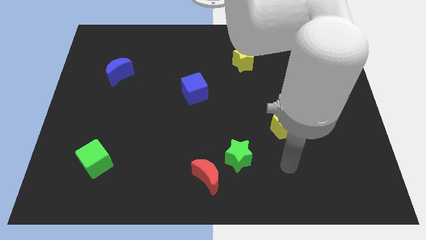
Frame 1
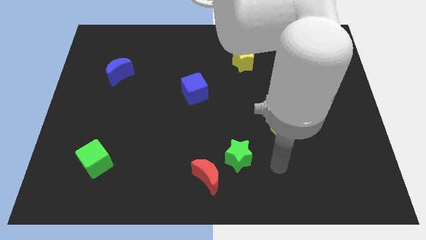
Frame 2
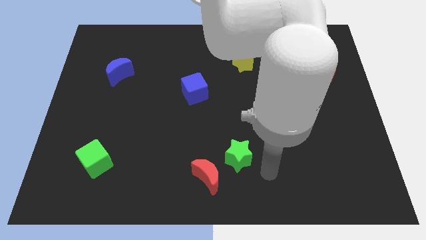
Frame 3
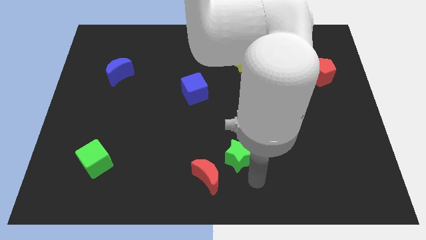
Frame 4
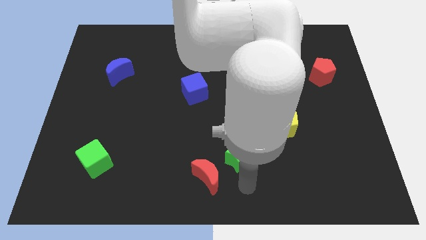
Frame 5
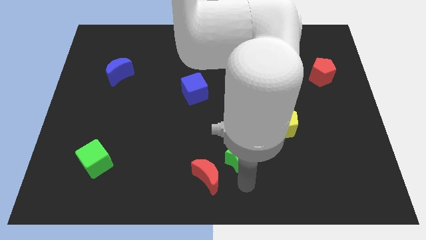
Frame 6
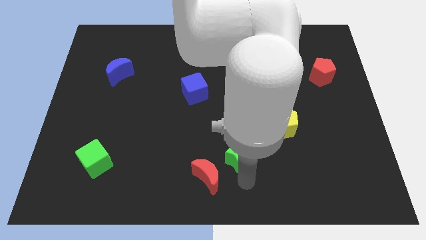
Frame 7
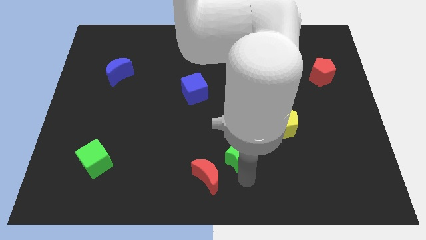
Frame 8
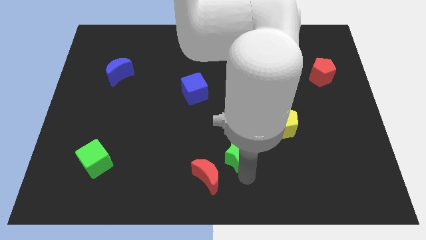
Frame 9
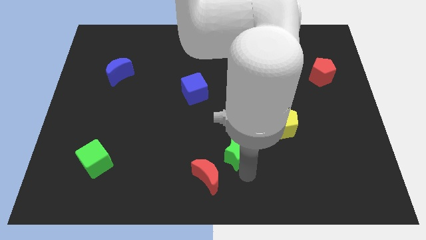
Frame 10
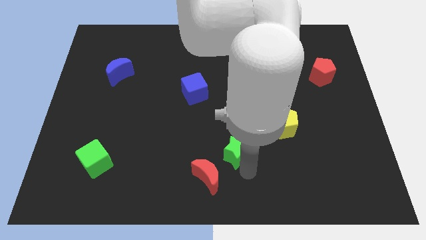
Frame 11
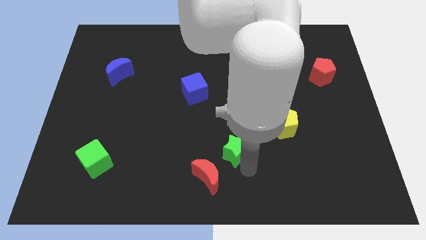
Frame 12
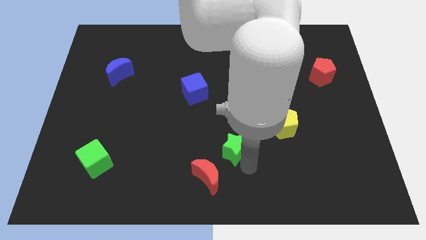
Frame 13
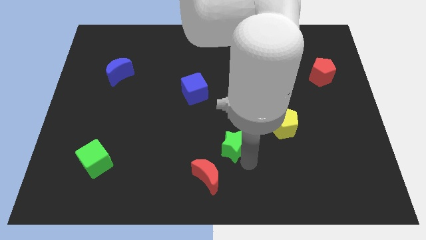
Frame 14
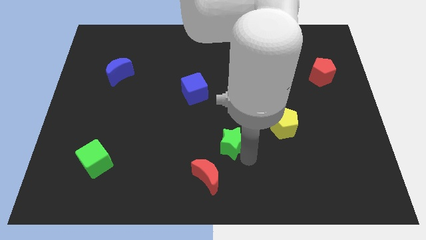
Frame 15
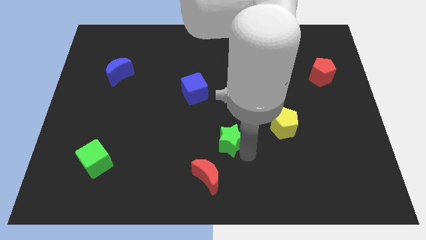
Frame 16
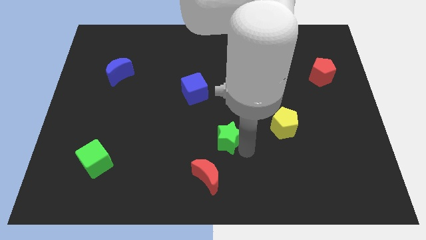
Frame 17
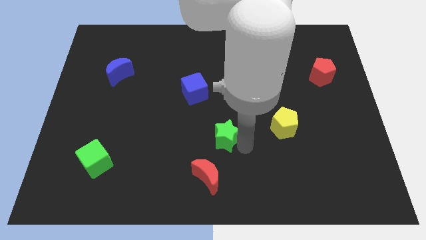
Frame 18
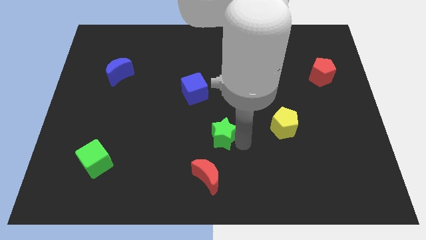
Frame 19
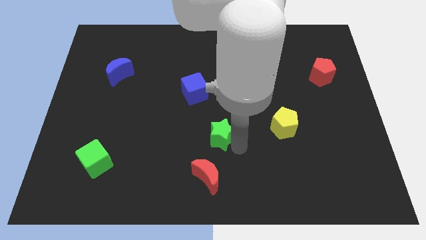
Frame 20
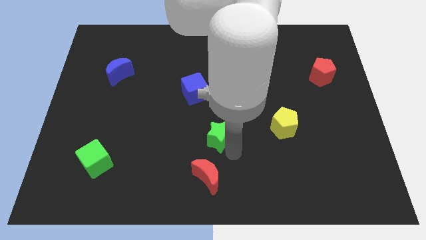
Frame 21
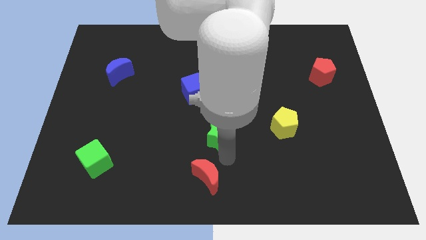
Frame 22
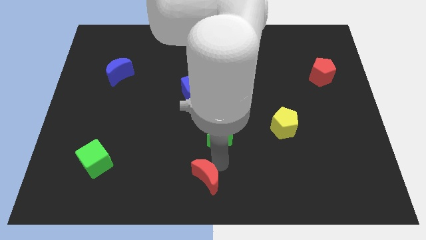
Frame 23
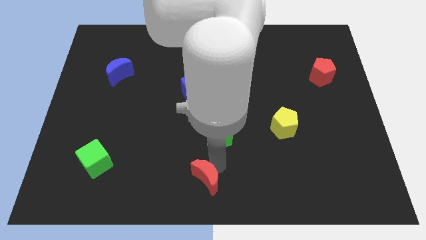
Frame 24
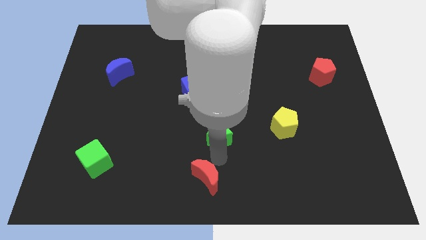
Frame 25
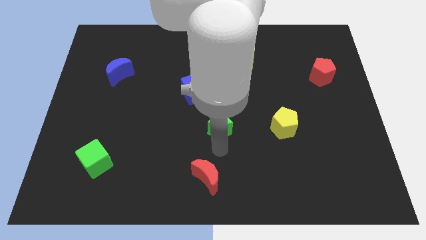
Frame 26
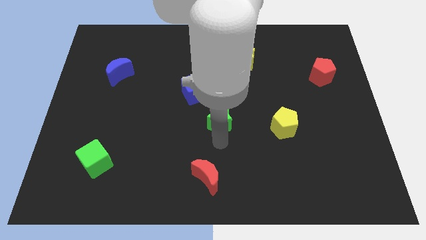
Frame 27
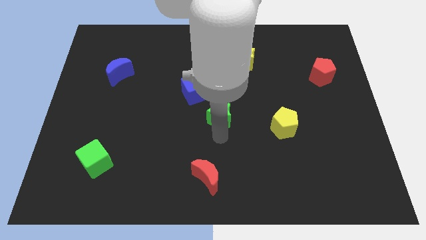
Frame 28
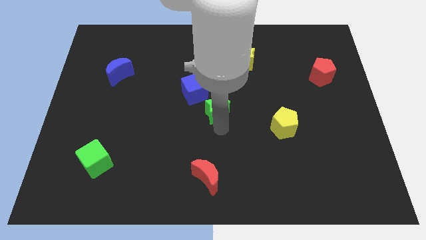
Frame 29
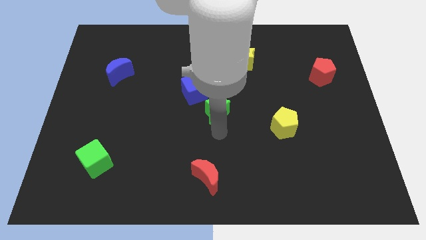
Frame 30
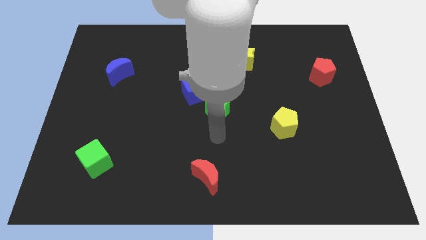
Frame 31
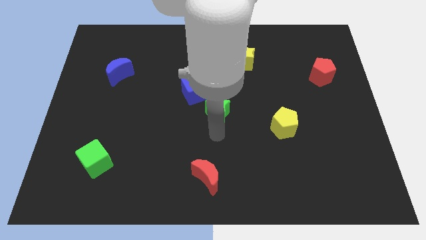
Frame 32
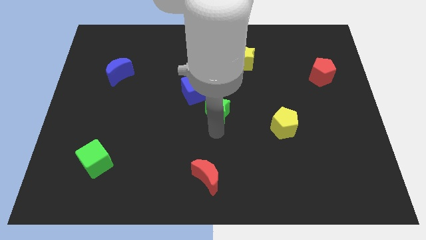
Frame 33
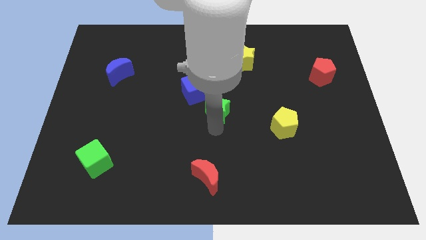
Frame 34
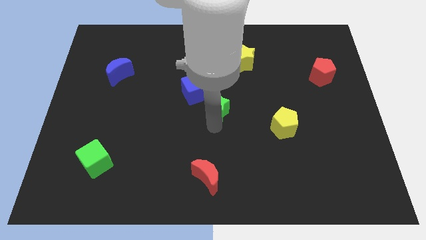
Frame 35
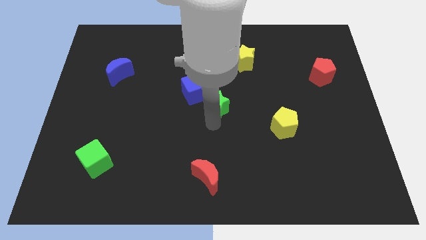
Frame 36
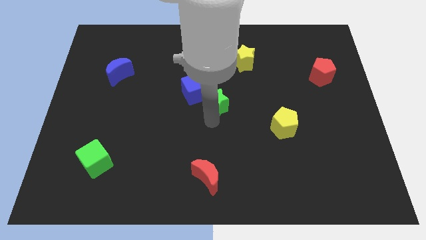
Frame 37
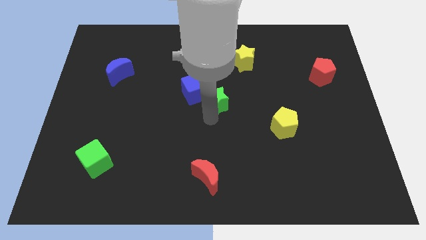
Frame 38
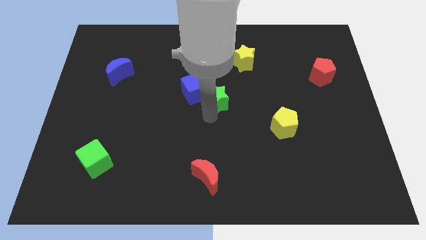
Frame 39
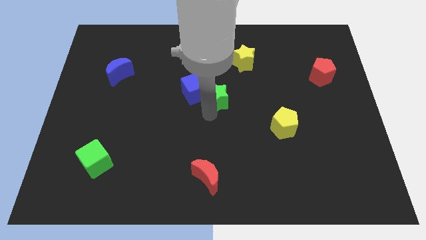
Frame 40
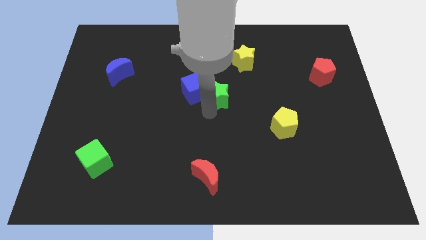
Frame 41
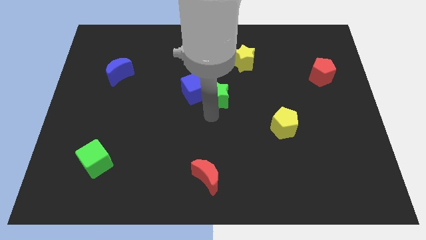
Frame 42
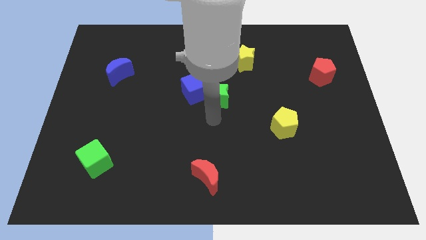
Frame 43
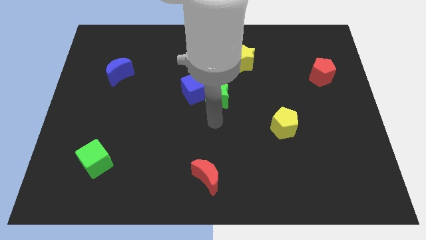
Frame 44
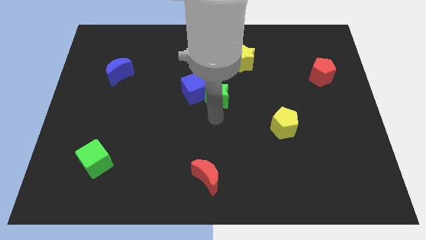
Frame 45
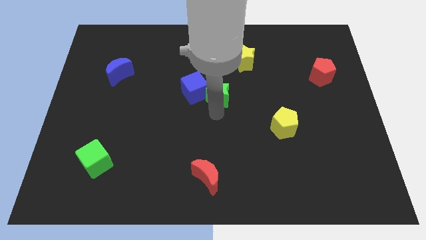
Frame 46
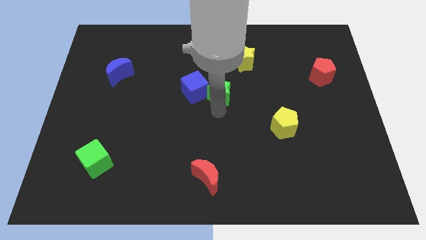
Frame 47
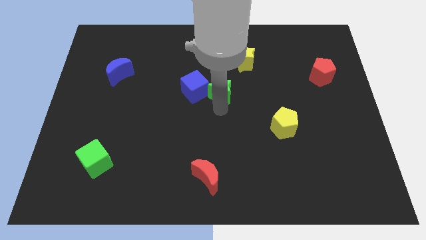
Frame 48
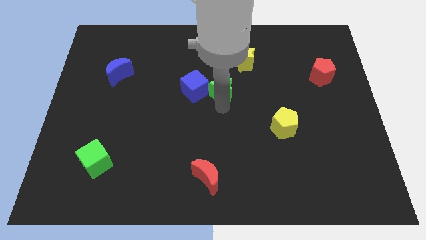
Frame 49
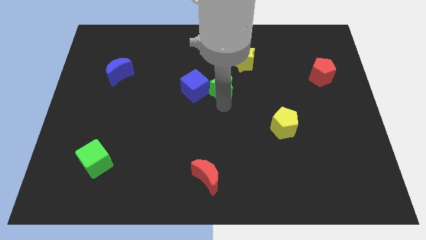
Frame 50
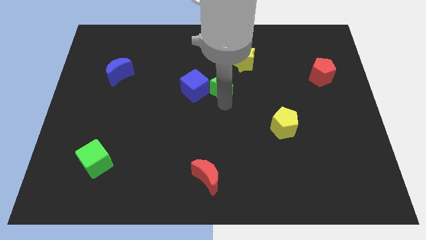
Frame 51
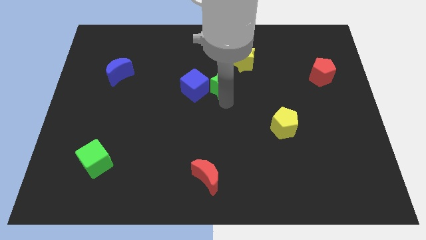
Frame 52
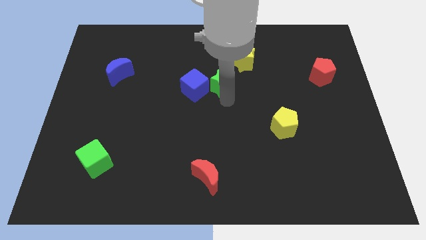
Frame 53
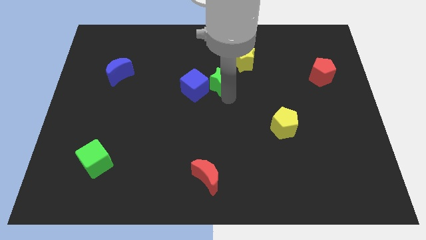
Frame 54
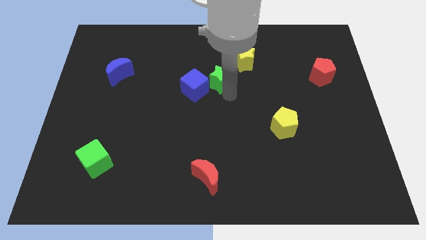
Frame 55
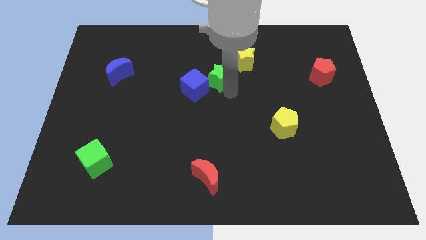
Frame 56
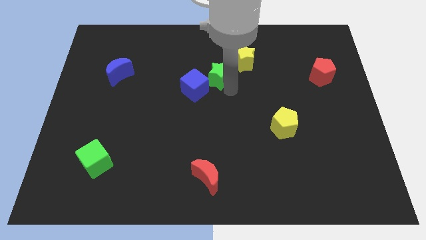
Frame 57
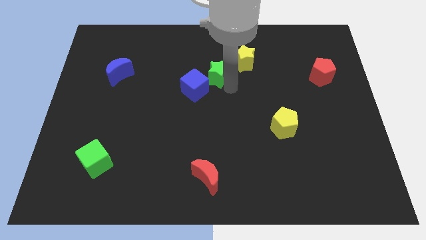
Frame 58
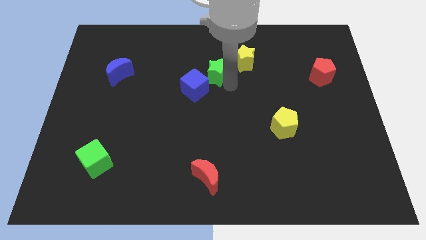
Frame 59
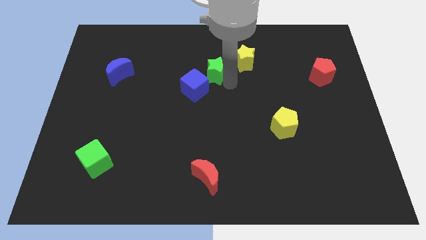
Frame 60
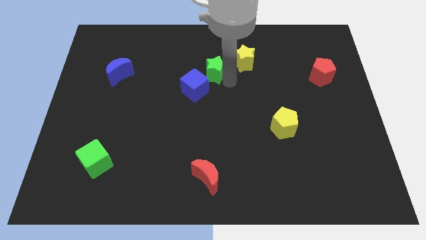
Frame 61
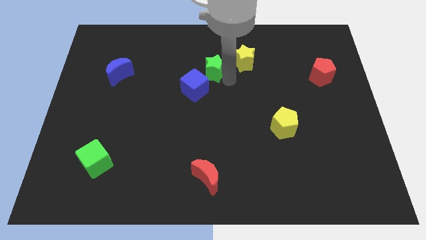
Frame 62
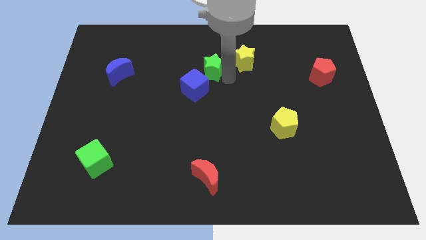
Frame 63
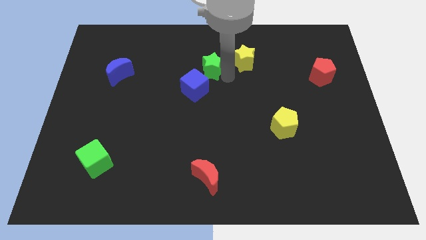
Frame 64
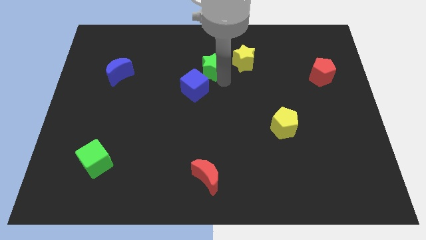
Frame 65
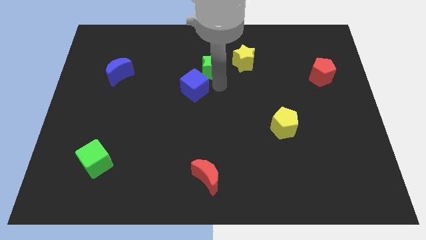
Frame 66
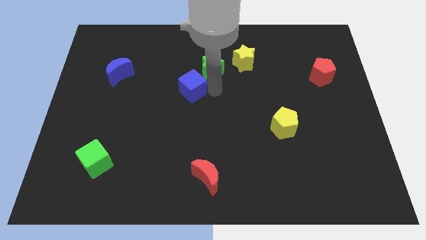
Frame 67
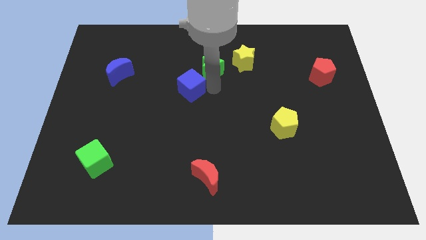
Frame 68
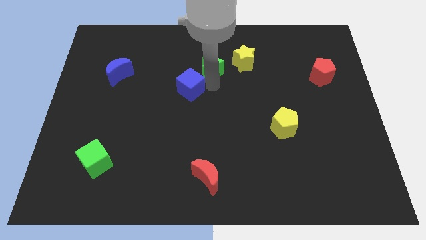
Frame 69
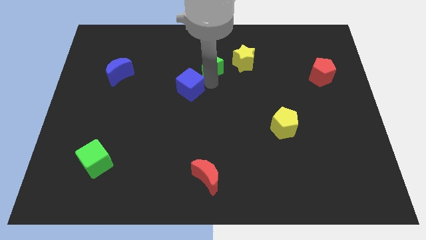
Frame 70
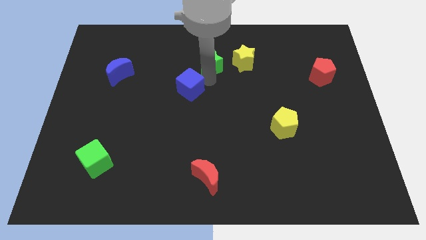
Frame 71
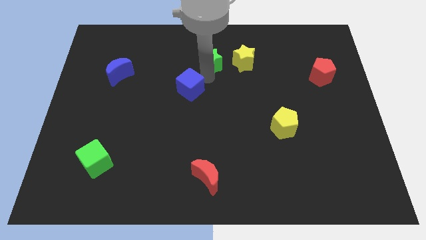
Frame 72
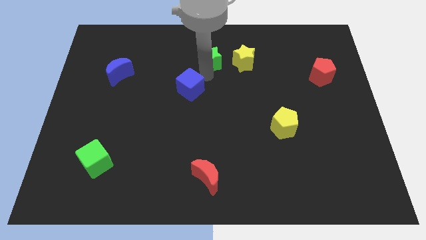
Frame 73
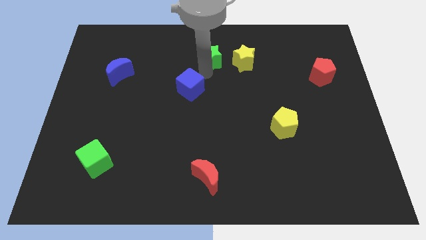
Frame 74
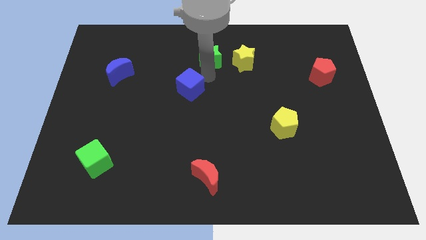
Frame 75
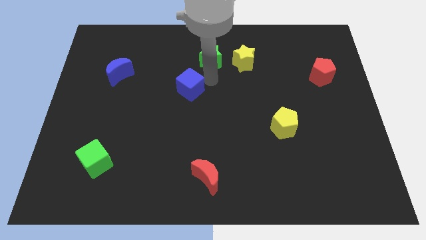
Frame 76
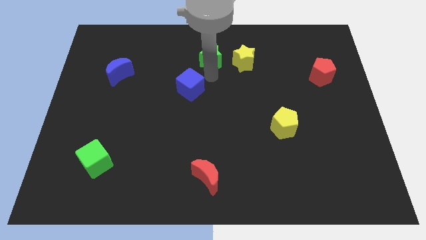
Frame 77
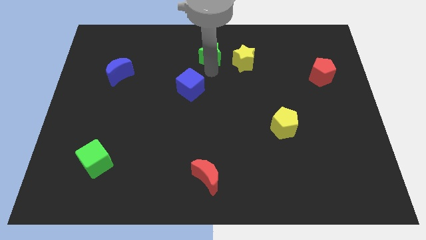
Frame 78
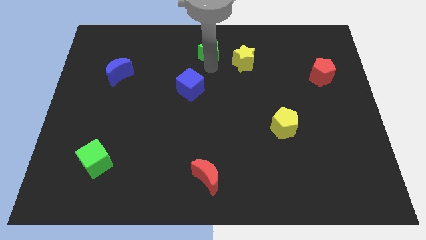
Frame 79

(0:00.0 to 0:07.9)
put the green star to the towards your base
